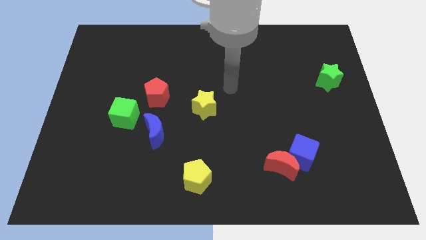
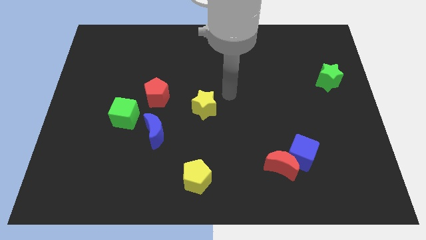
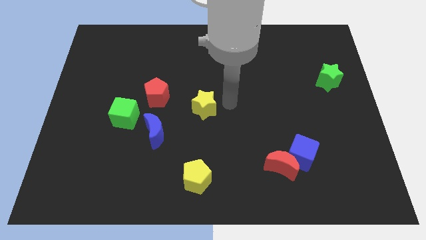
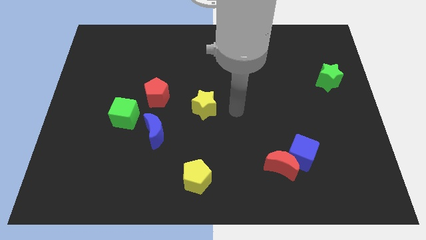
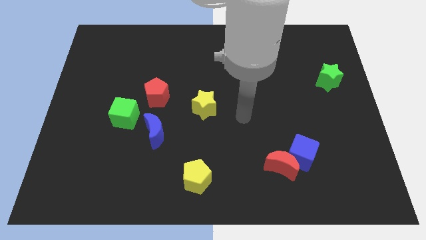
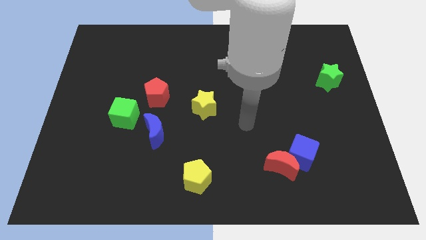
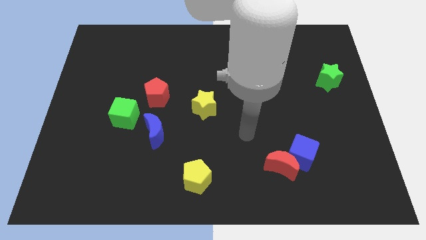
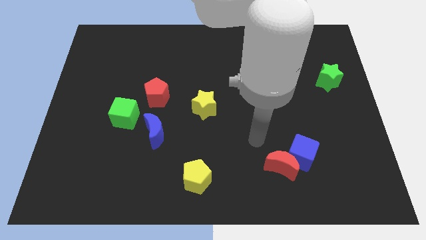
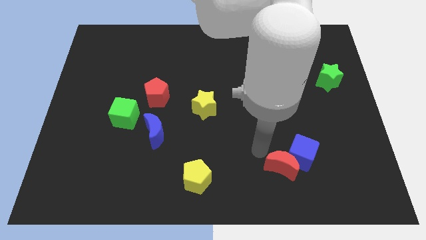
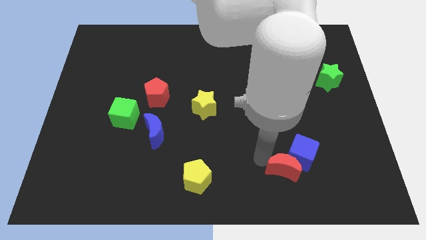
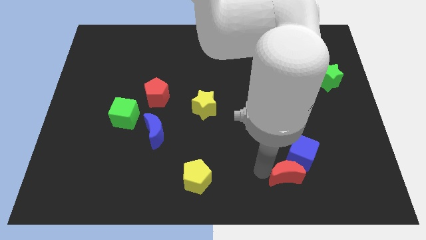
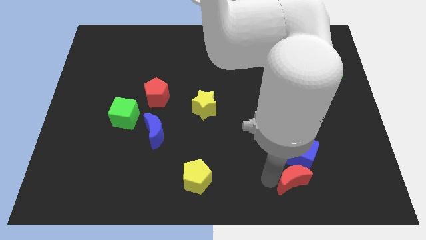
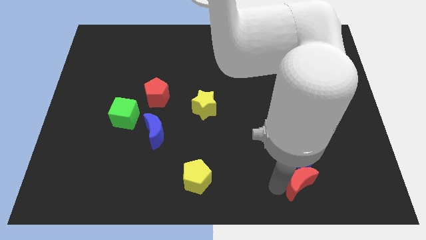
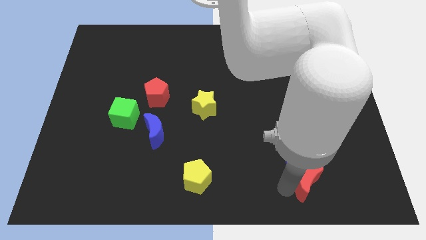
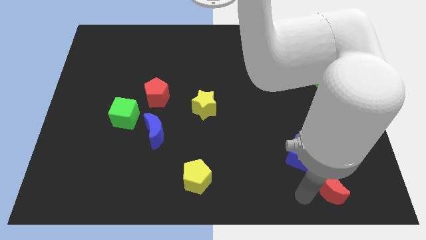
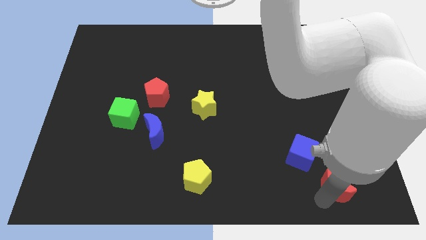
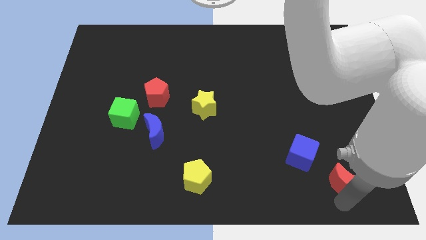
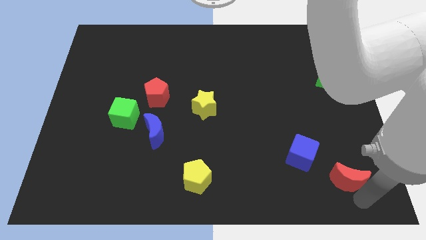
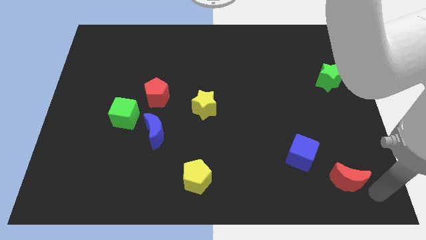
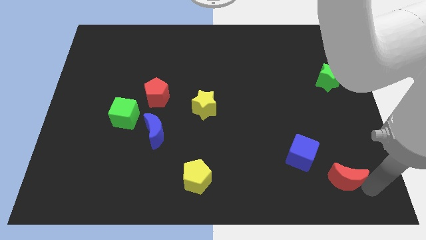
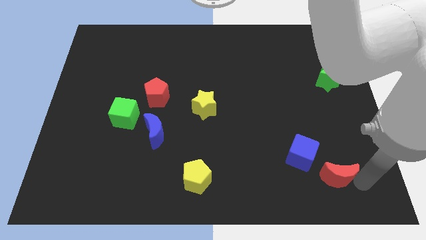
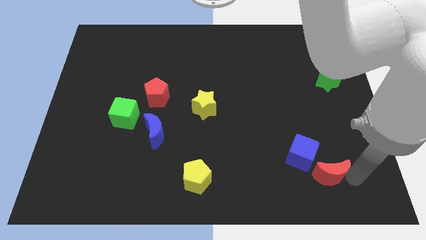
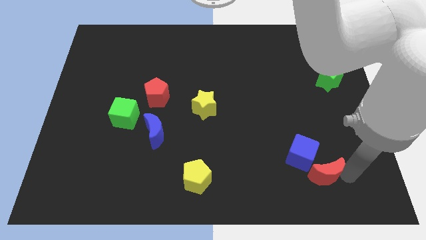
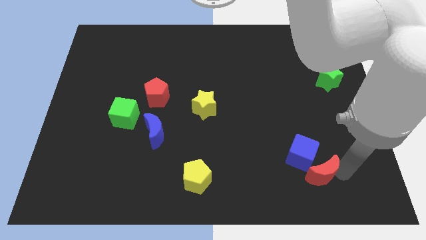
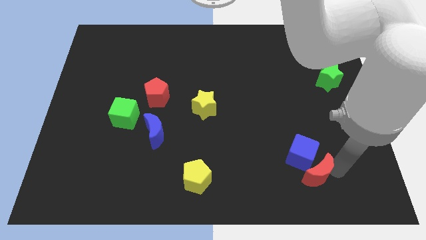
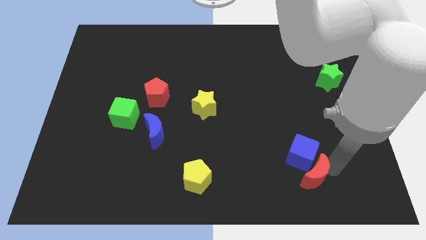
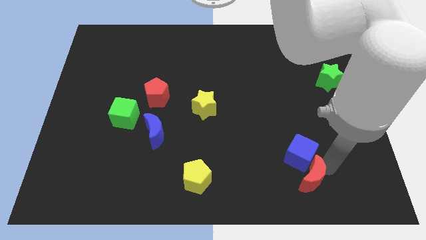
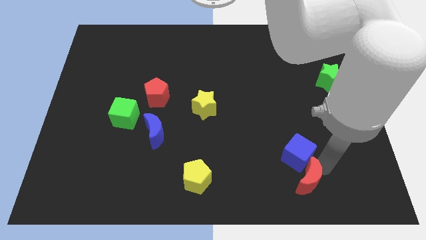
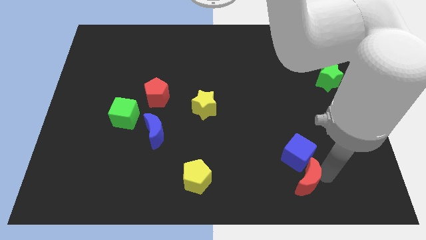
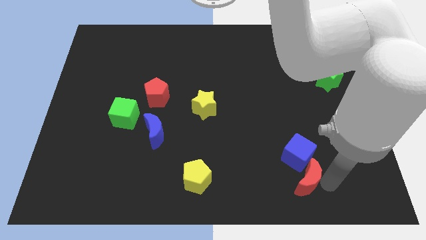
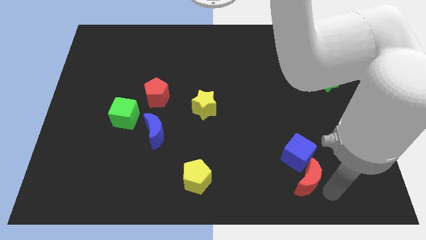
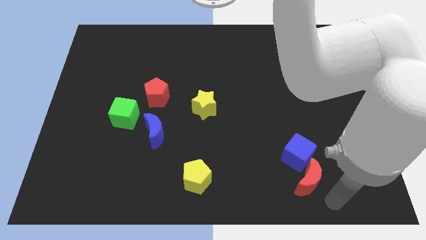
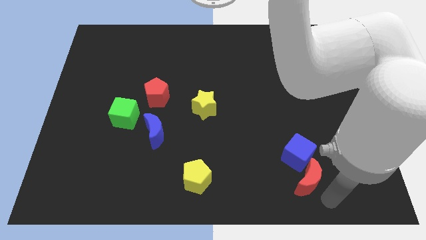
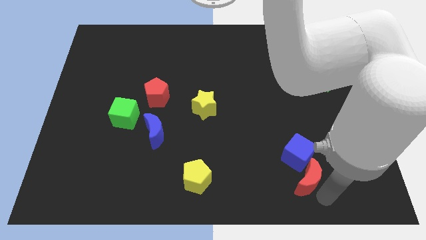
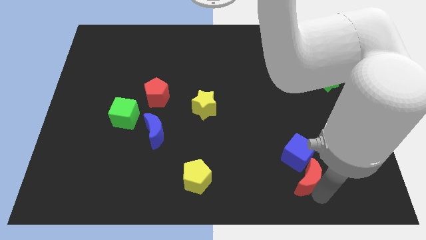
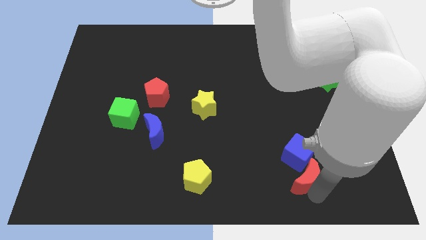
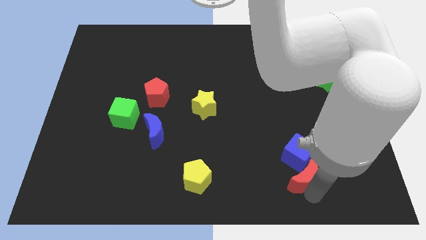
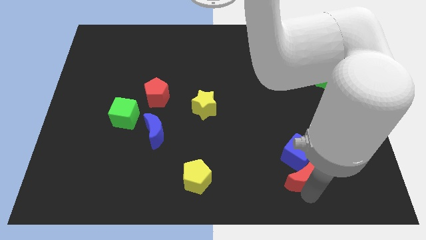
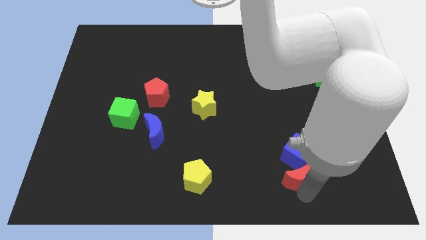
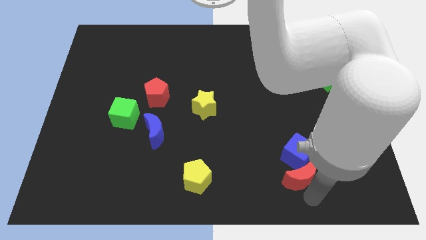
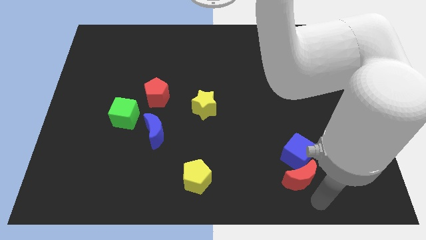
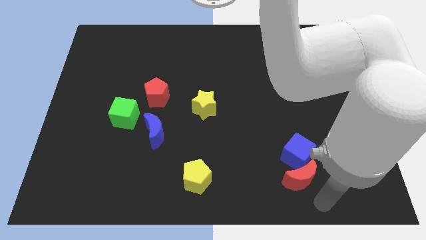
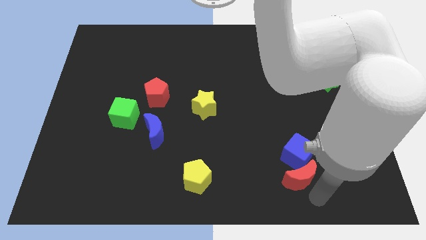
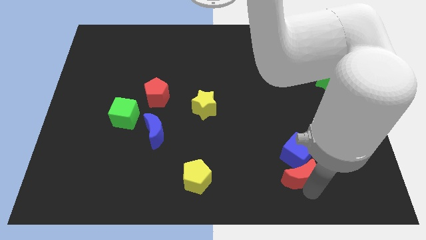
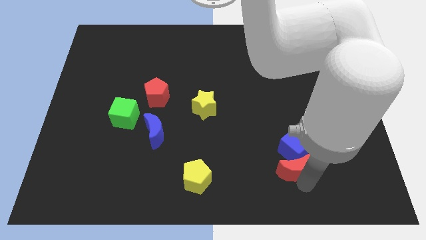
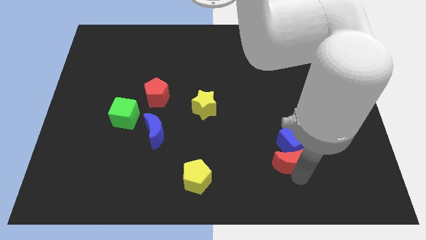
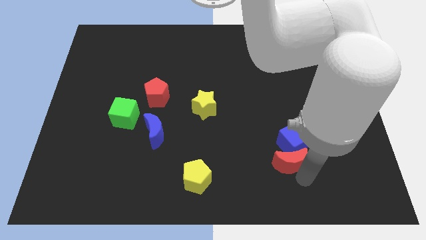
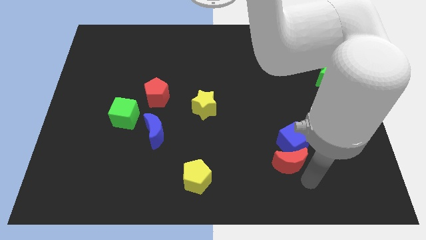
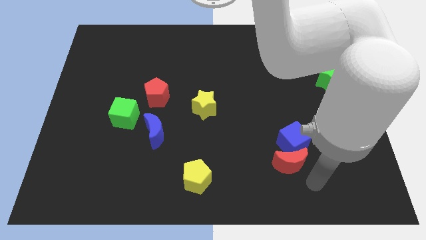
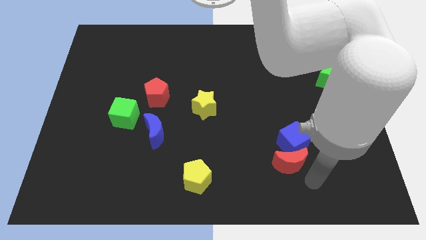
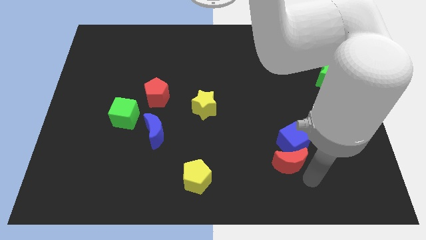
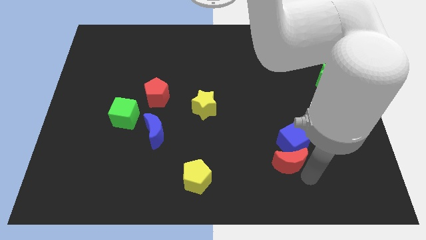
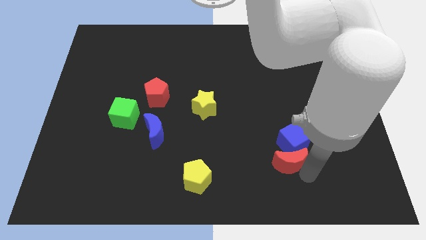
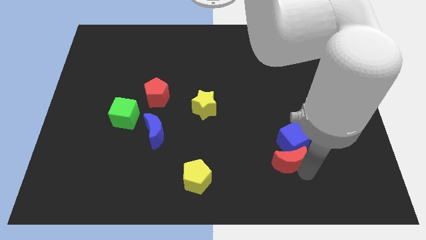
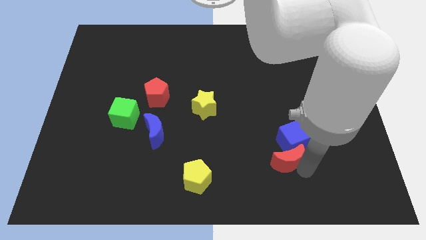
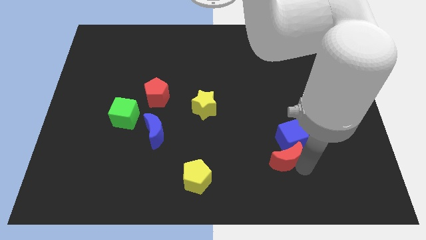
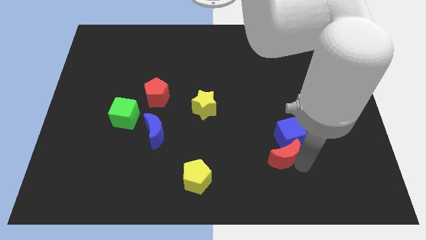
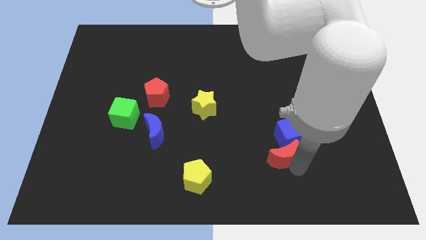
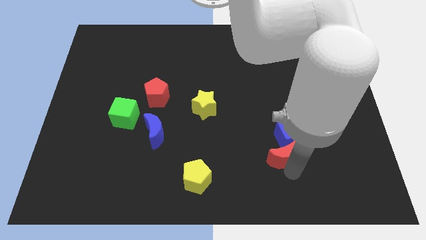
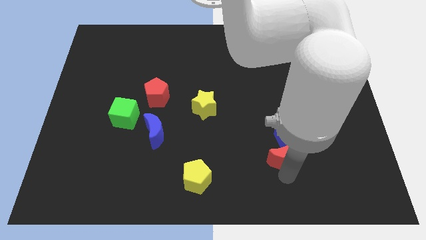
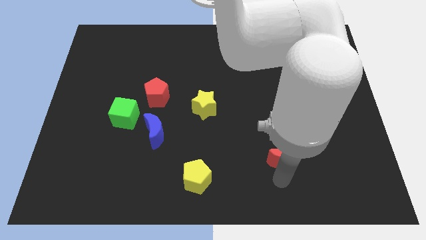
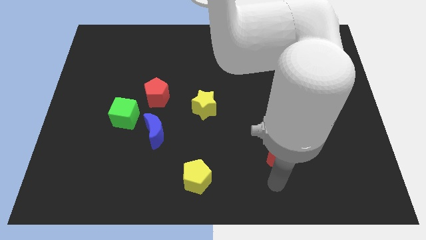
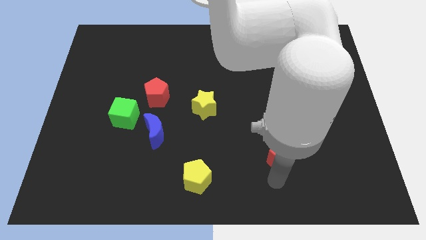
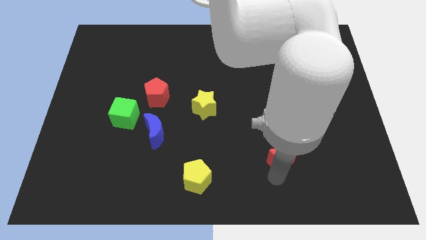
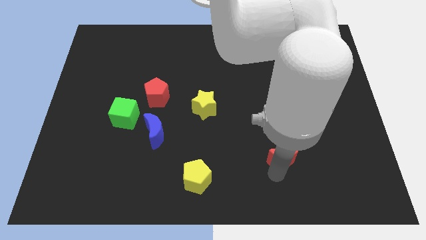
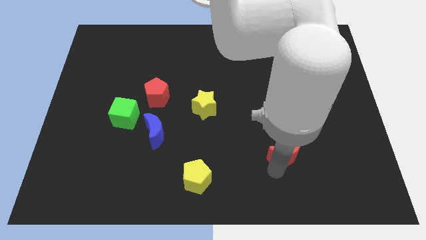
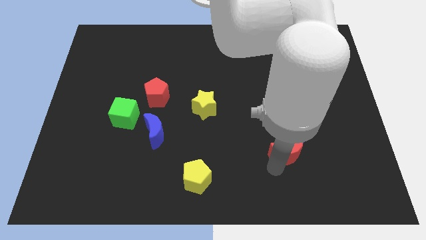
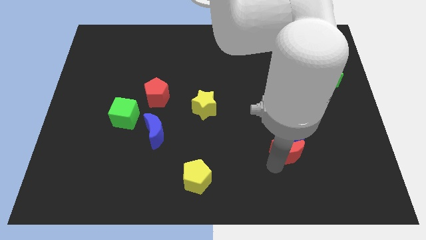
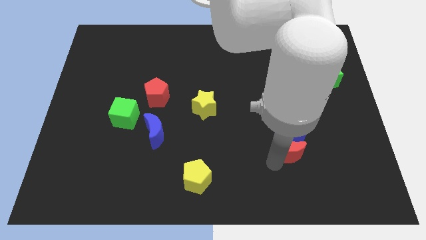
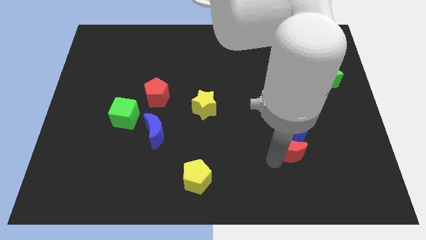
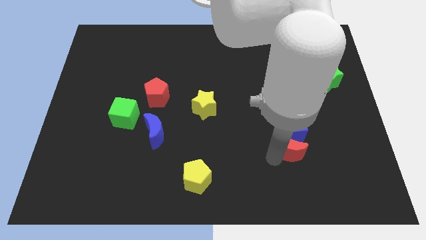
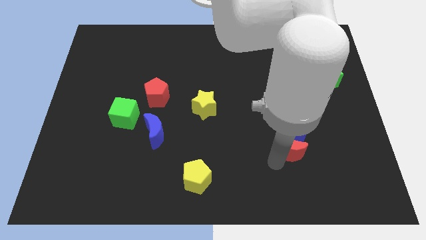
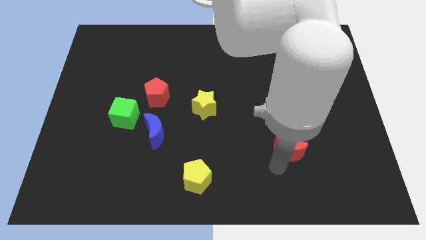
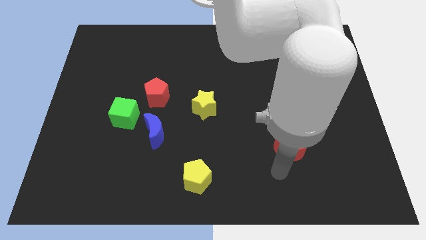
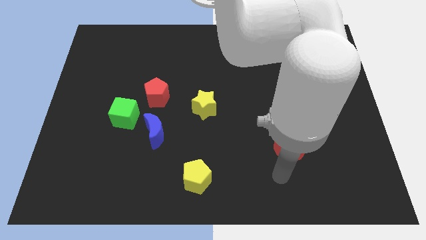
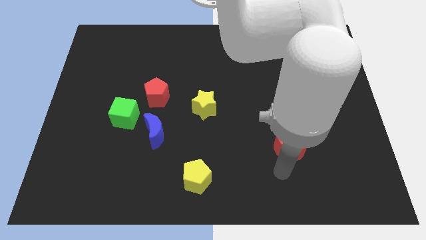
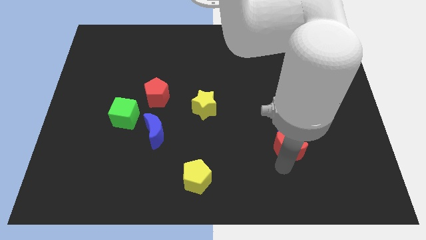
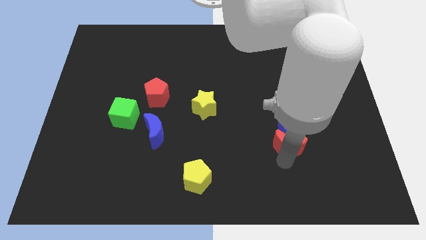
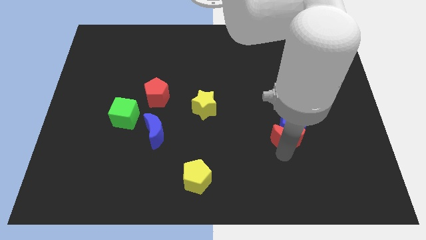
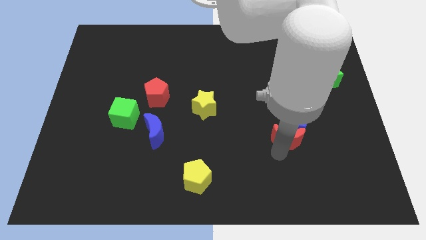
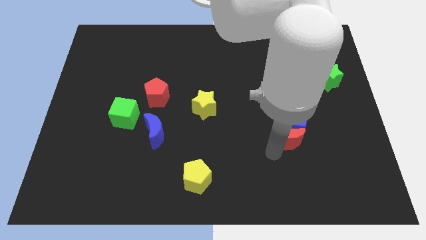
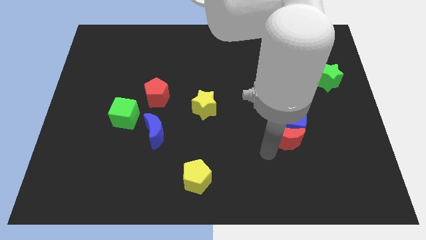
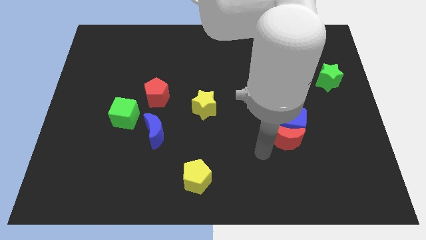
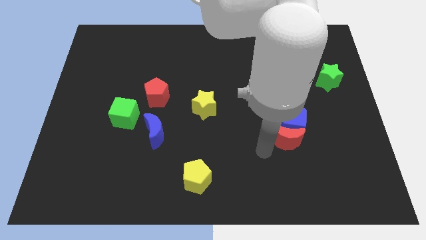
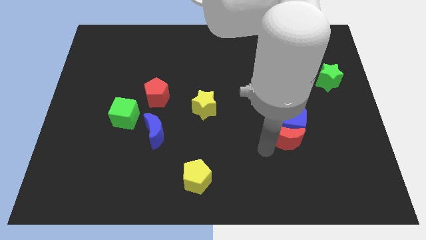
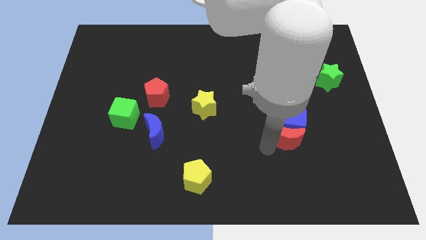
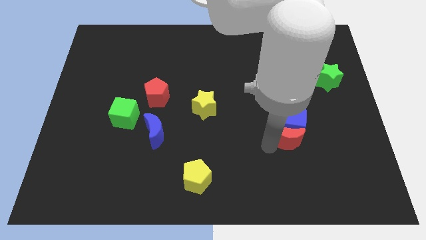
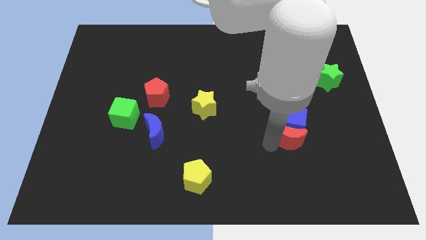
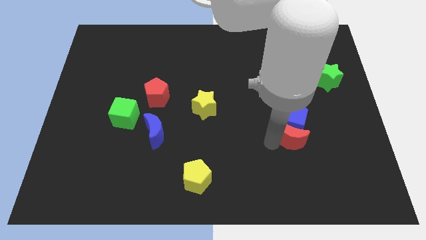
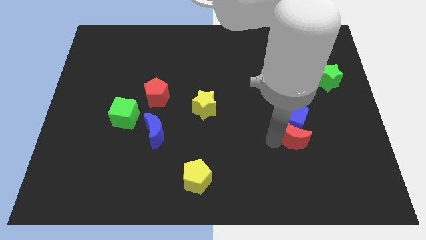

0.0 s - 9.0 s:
slightly move the red moon upwards and right diagonally
